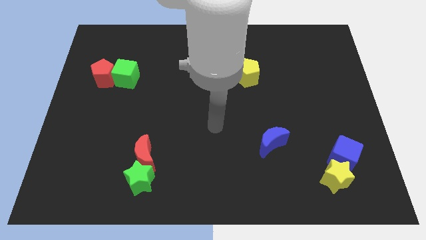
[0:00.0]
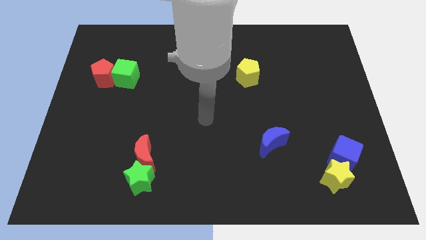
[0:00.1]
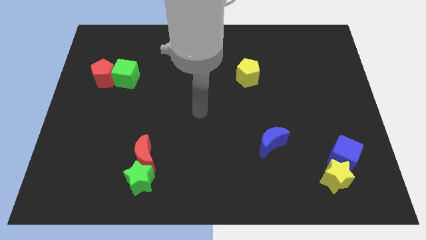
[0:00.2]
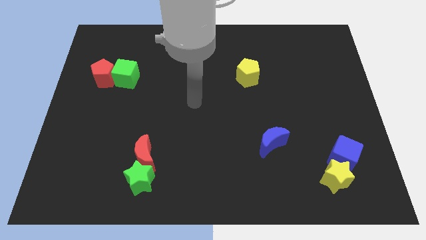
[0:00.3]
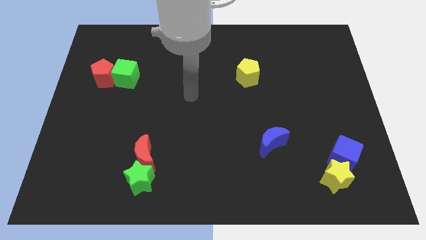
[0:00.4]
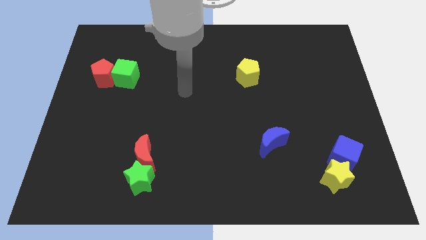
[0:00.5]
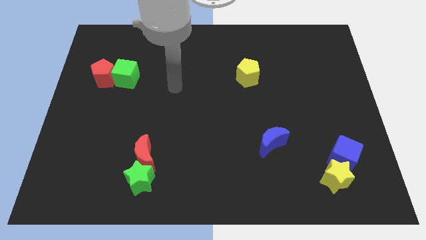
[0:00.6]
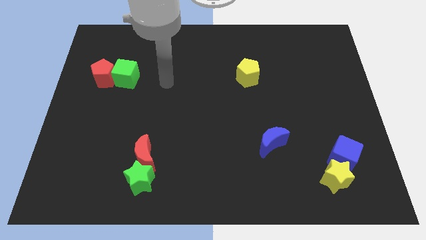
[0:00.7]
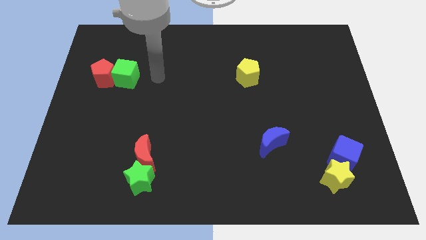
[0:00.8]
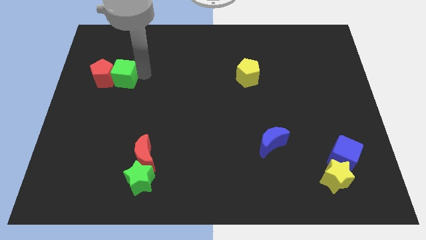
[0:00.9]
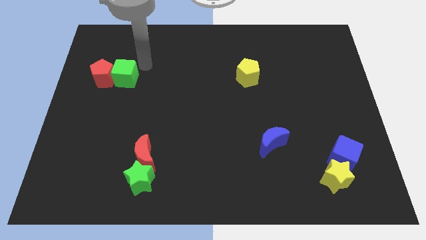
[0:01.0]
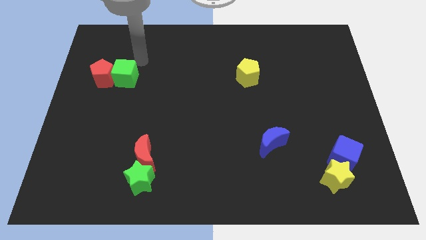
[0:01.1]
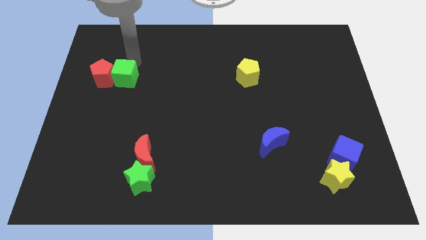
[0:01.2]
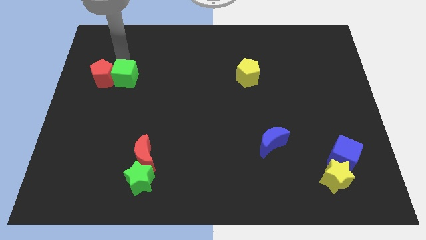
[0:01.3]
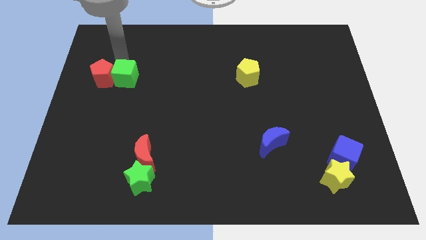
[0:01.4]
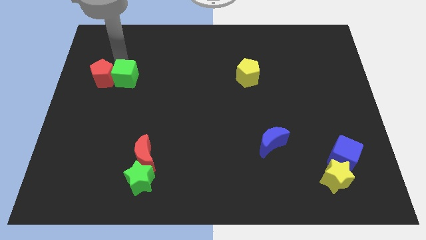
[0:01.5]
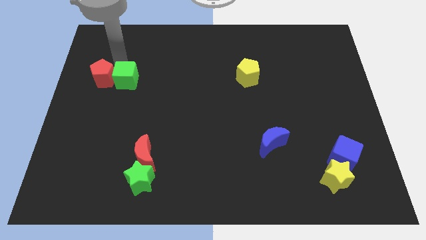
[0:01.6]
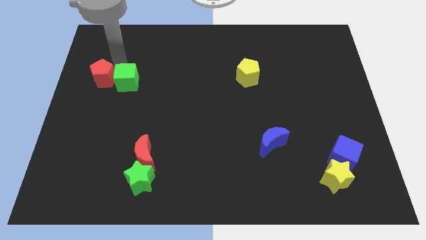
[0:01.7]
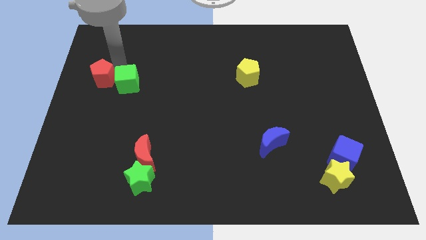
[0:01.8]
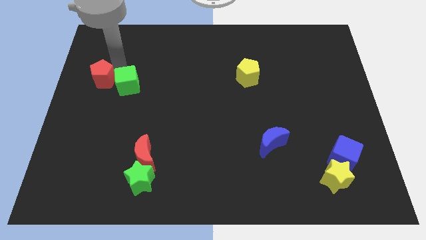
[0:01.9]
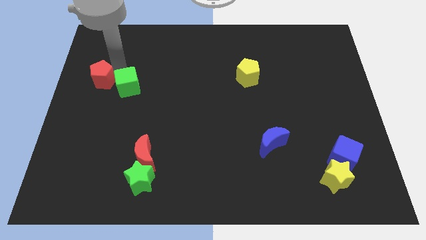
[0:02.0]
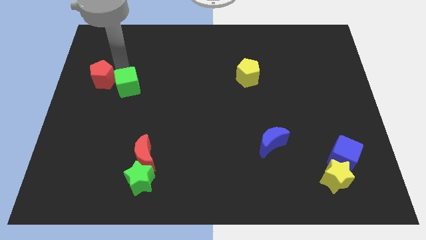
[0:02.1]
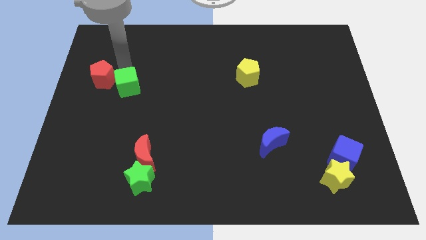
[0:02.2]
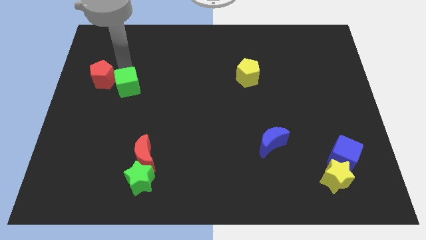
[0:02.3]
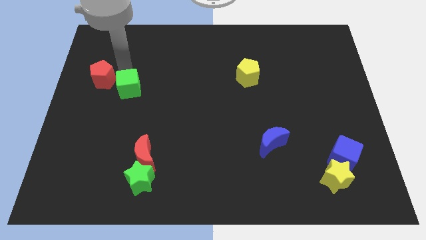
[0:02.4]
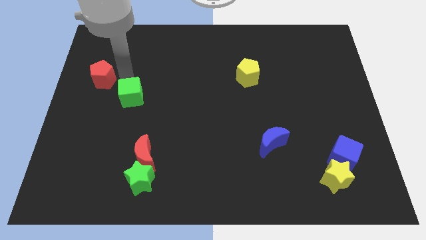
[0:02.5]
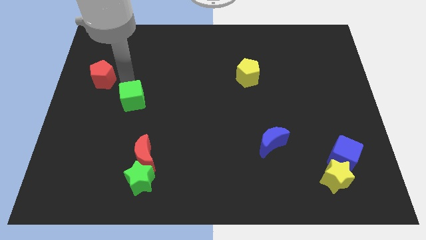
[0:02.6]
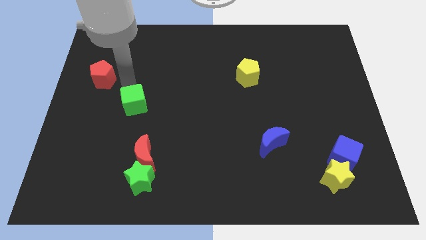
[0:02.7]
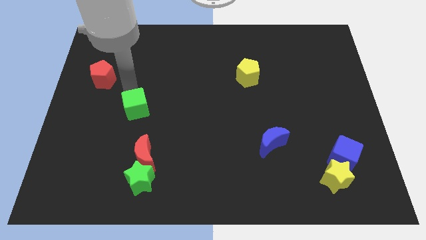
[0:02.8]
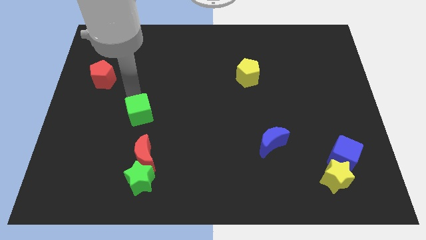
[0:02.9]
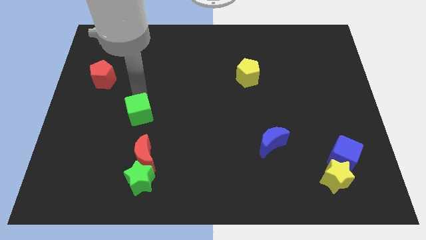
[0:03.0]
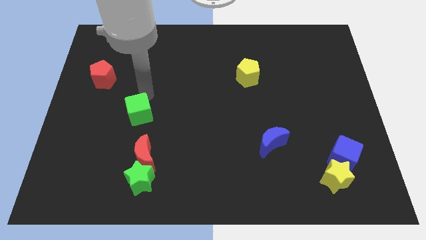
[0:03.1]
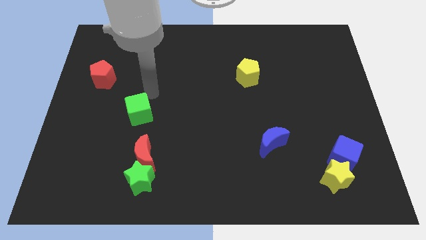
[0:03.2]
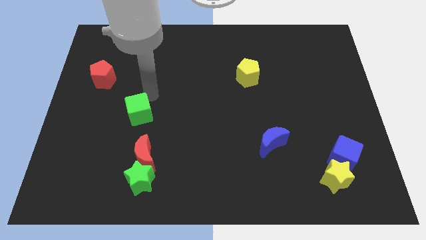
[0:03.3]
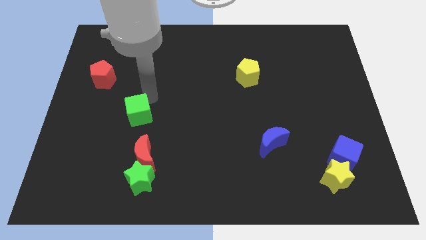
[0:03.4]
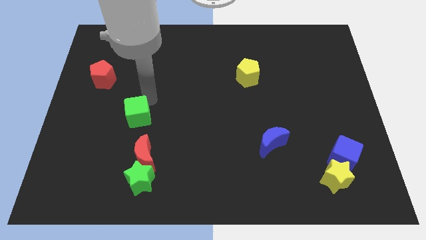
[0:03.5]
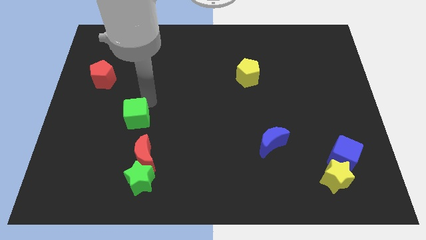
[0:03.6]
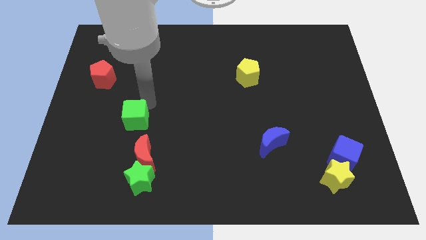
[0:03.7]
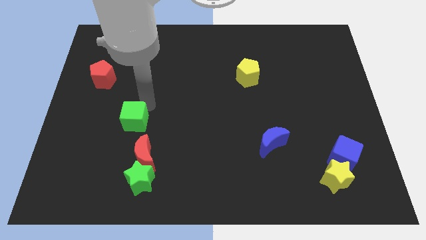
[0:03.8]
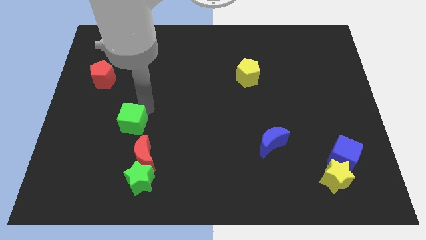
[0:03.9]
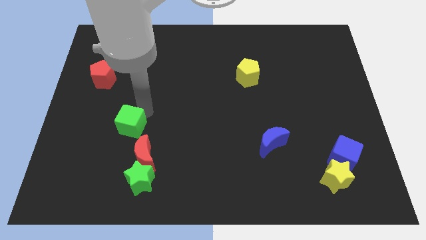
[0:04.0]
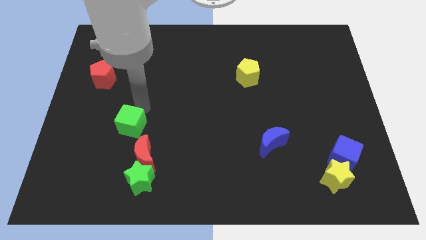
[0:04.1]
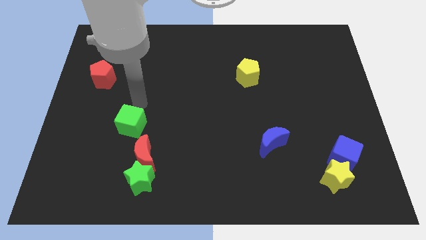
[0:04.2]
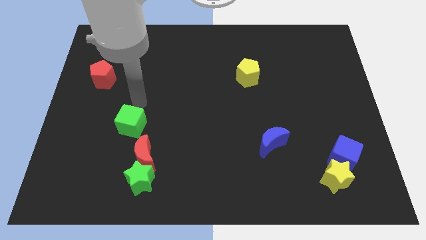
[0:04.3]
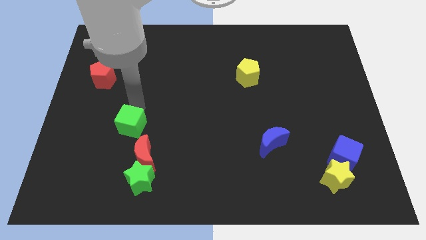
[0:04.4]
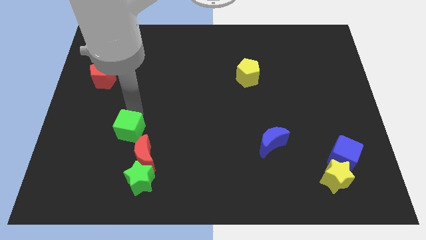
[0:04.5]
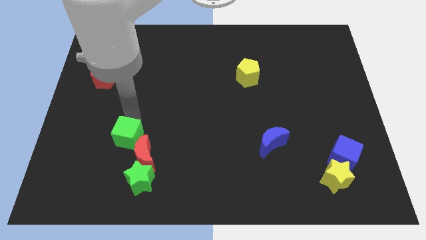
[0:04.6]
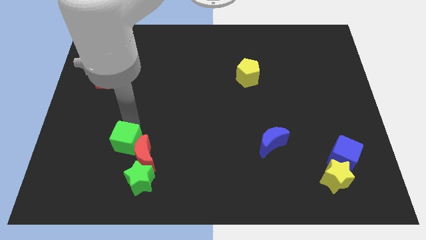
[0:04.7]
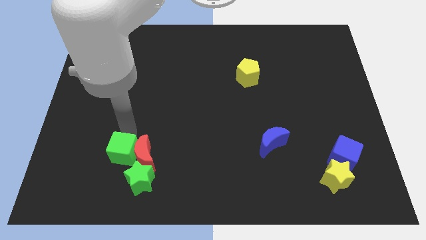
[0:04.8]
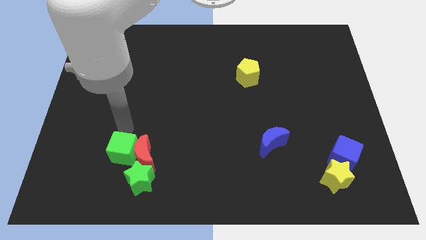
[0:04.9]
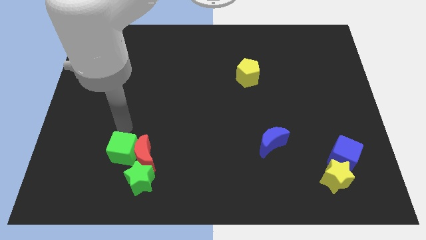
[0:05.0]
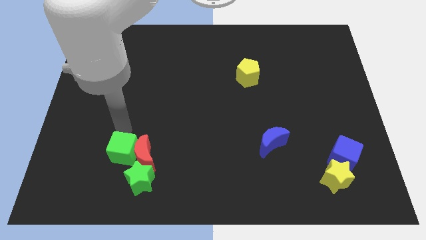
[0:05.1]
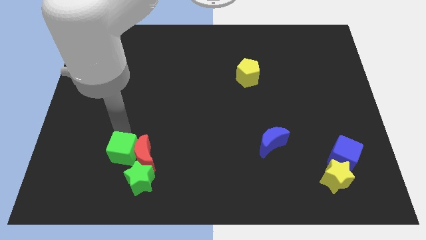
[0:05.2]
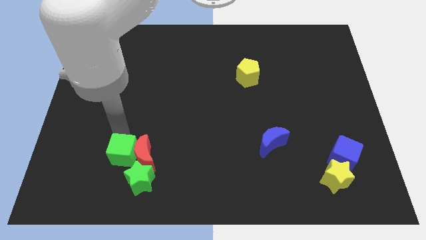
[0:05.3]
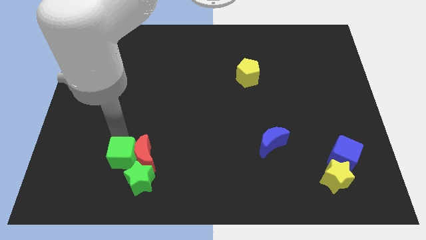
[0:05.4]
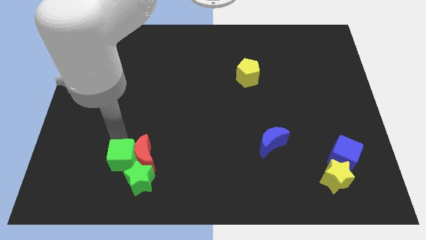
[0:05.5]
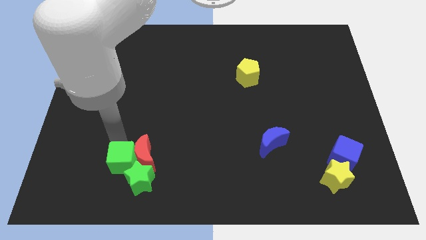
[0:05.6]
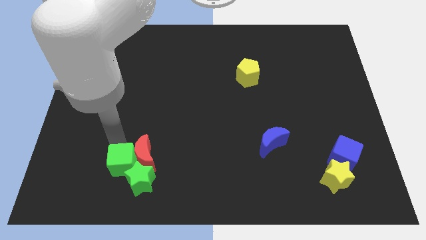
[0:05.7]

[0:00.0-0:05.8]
move the green cube to the green star

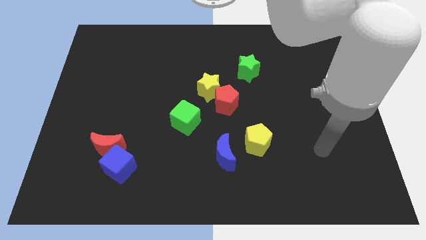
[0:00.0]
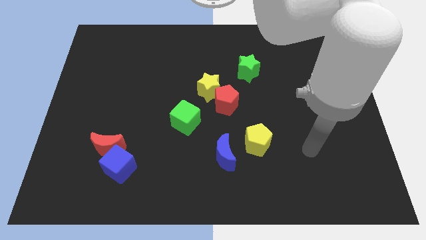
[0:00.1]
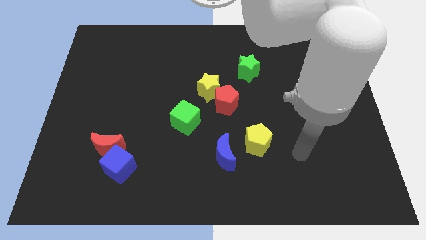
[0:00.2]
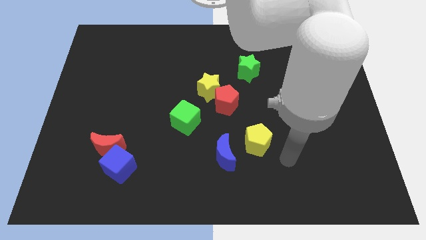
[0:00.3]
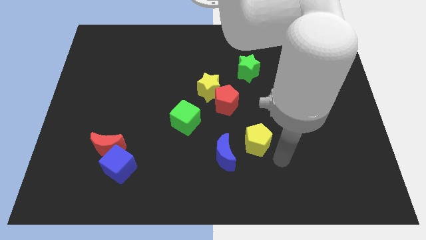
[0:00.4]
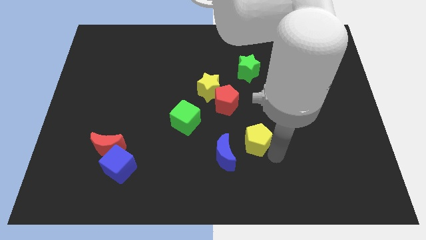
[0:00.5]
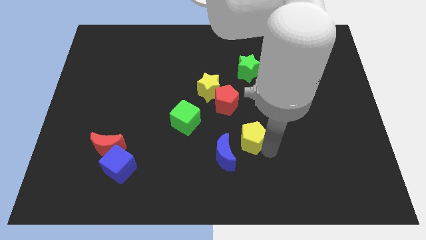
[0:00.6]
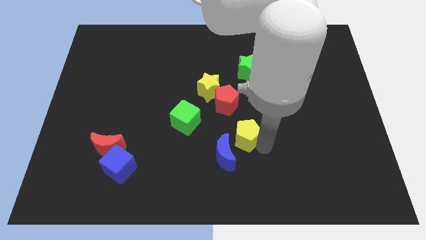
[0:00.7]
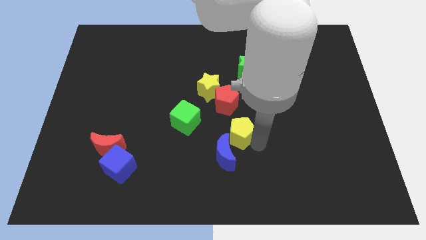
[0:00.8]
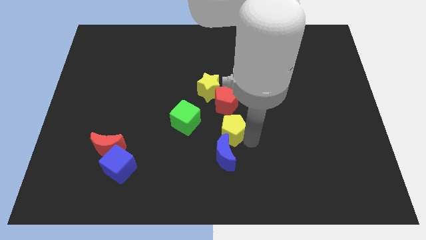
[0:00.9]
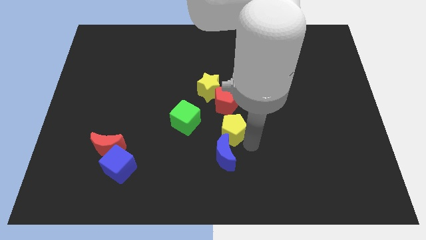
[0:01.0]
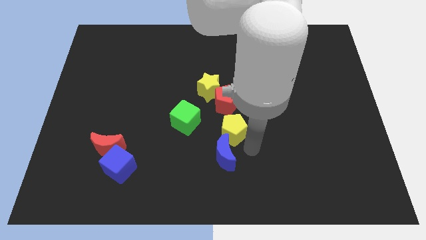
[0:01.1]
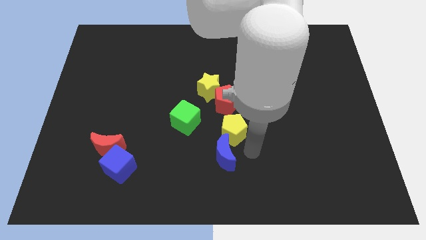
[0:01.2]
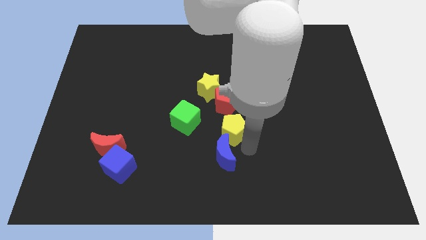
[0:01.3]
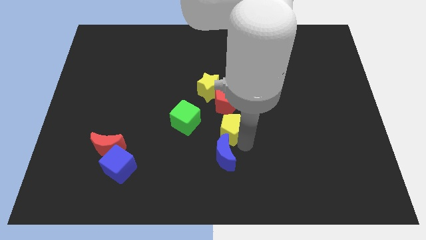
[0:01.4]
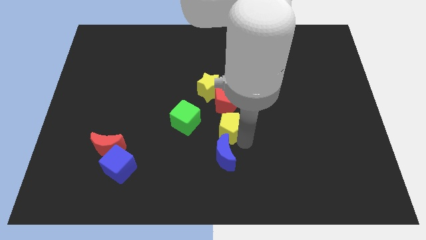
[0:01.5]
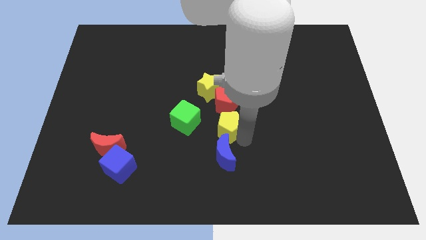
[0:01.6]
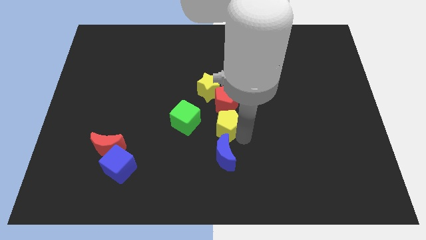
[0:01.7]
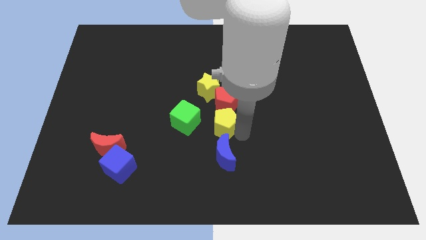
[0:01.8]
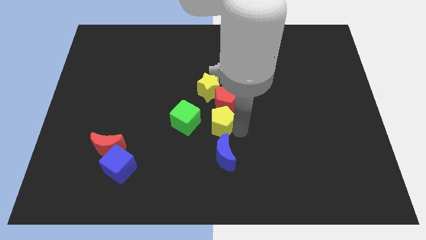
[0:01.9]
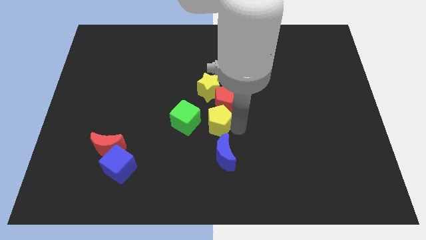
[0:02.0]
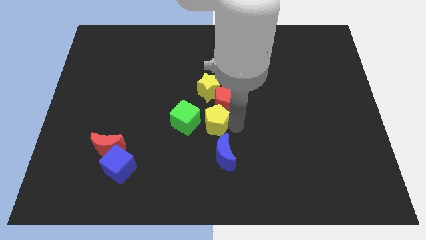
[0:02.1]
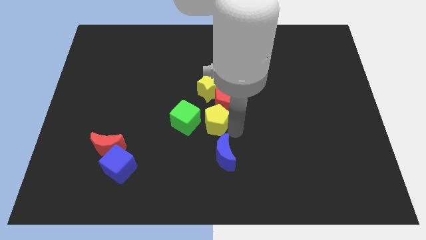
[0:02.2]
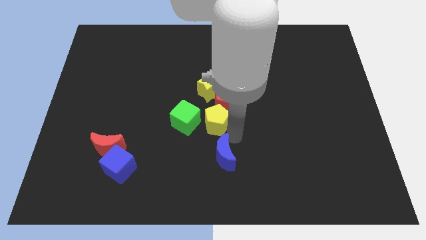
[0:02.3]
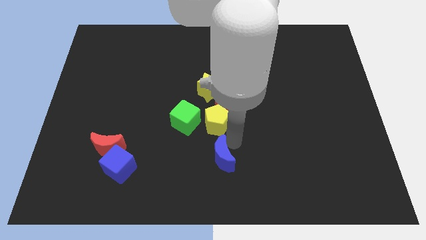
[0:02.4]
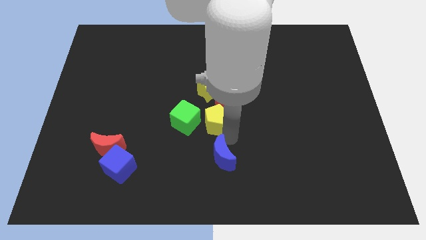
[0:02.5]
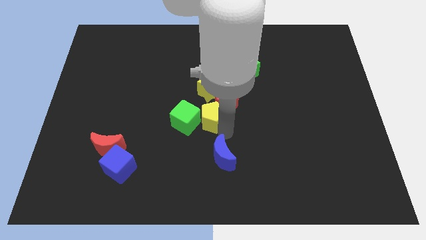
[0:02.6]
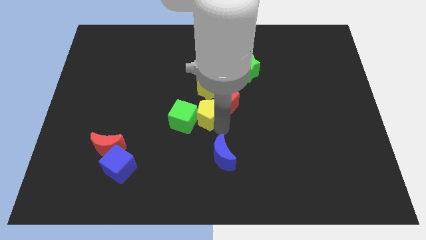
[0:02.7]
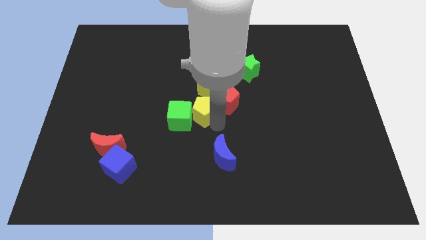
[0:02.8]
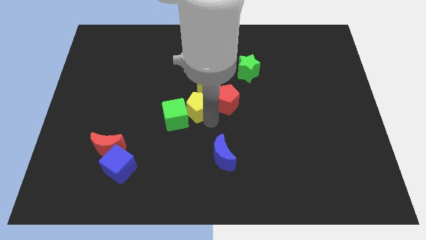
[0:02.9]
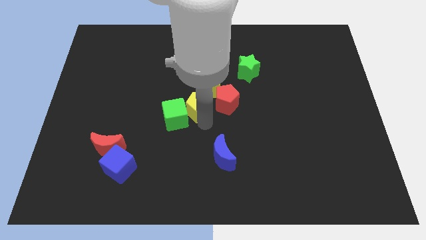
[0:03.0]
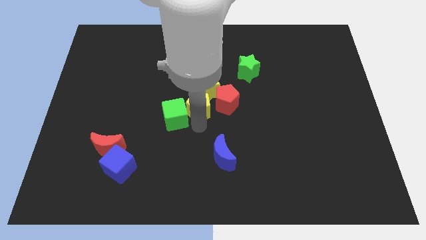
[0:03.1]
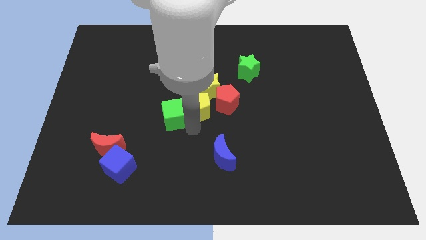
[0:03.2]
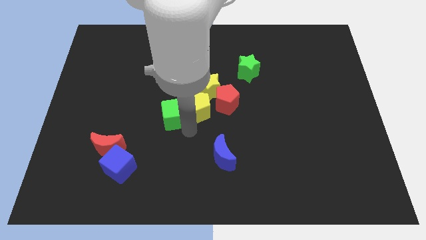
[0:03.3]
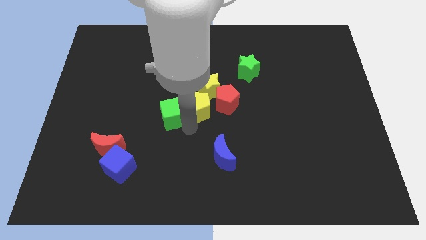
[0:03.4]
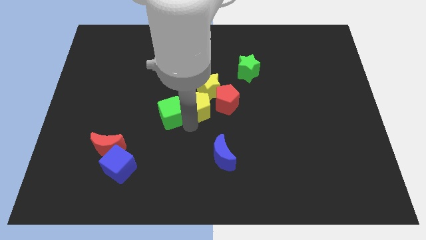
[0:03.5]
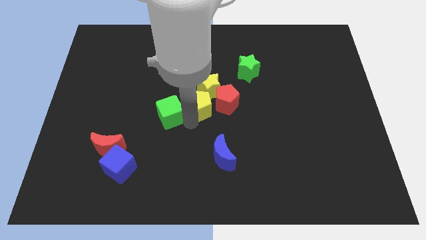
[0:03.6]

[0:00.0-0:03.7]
put the yellow pentagon towards the yellow star
